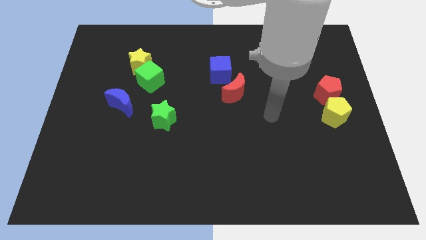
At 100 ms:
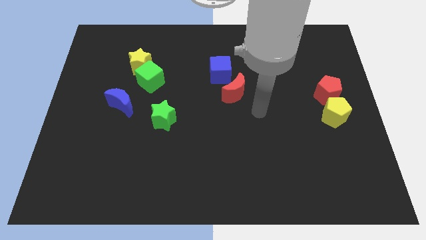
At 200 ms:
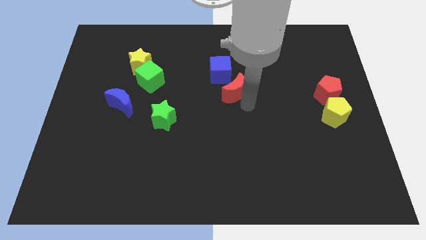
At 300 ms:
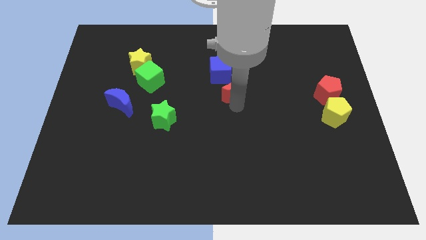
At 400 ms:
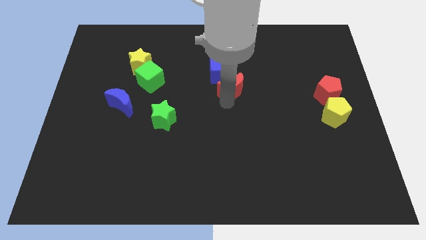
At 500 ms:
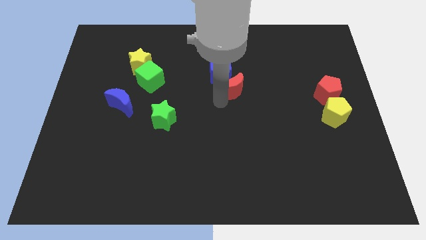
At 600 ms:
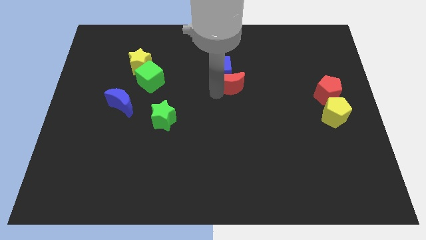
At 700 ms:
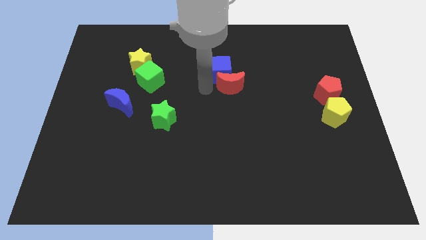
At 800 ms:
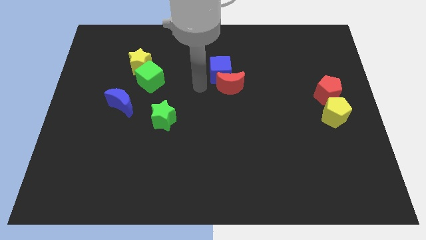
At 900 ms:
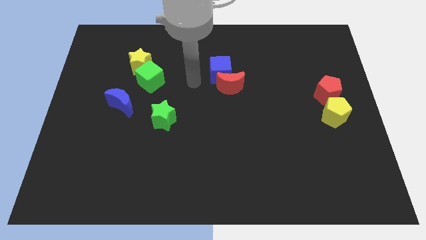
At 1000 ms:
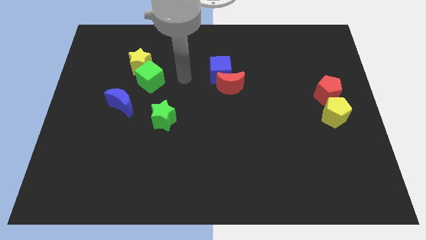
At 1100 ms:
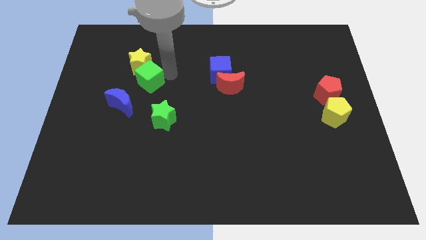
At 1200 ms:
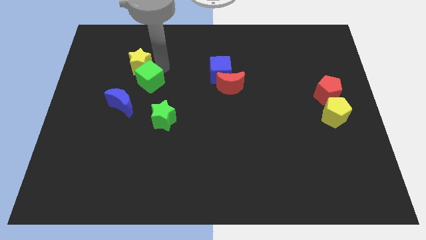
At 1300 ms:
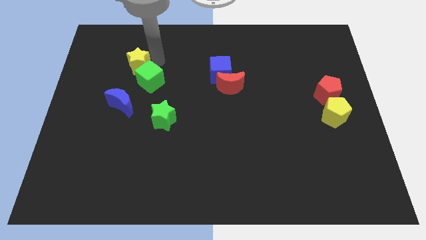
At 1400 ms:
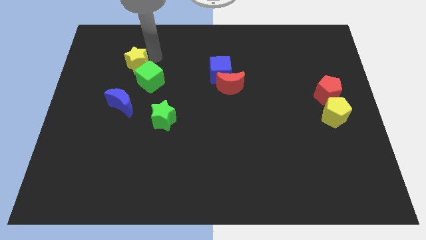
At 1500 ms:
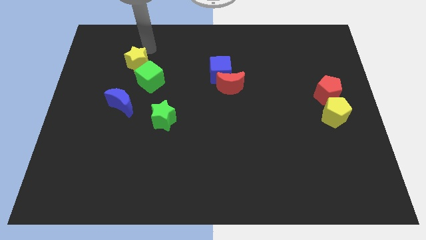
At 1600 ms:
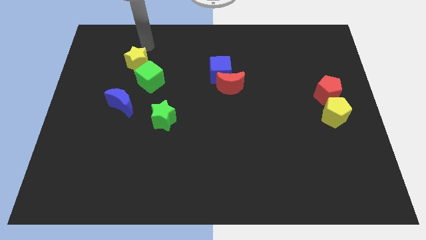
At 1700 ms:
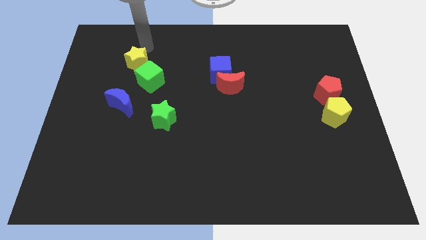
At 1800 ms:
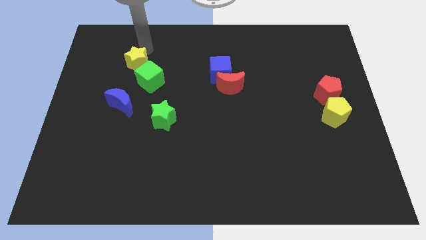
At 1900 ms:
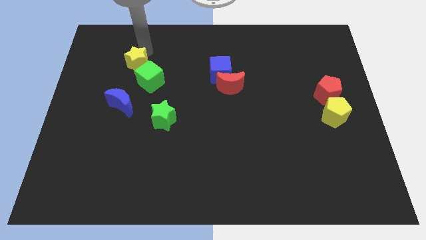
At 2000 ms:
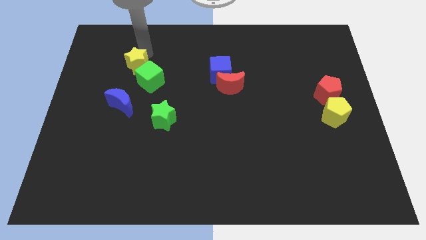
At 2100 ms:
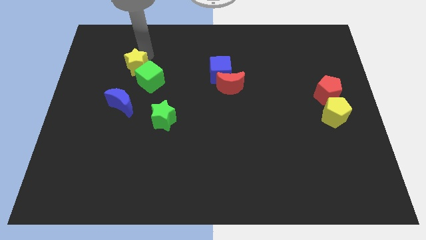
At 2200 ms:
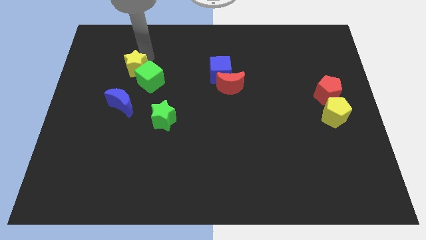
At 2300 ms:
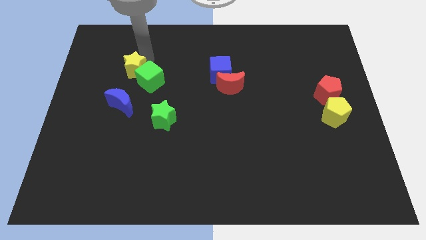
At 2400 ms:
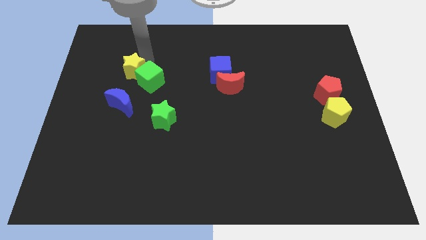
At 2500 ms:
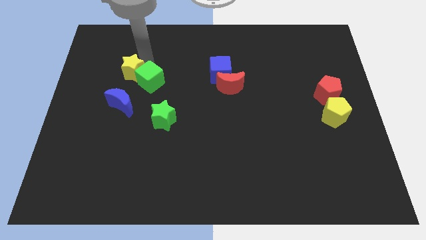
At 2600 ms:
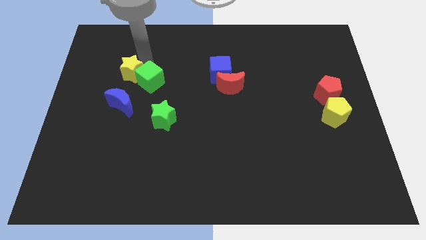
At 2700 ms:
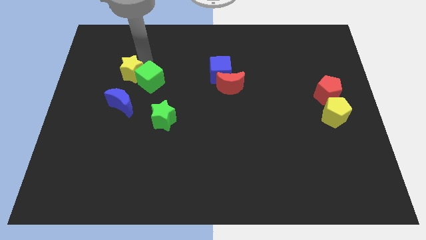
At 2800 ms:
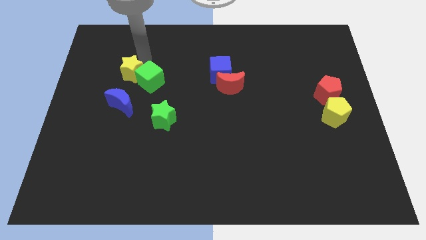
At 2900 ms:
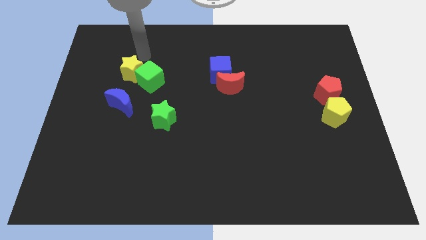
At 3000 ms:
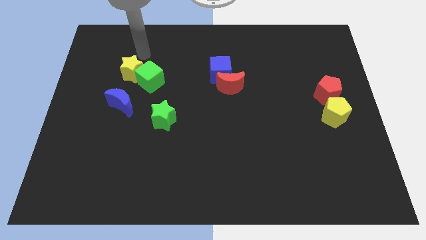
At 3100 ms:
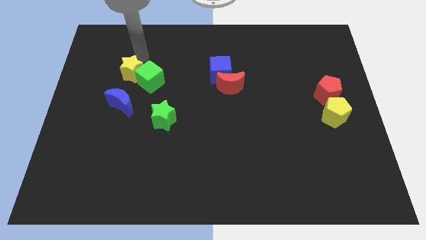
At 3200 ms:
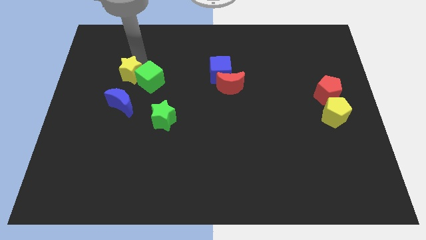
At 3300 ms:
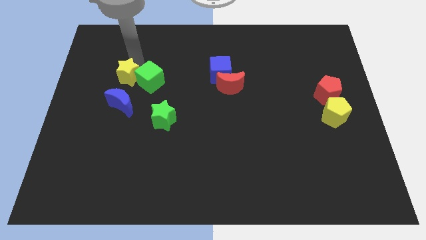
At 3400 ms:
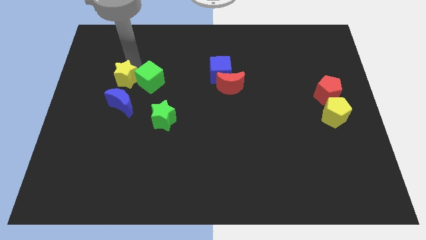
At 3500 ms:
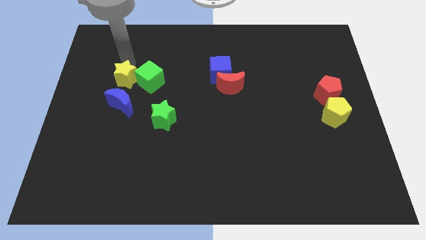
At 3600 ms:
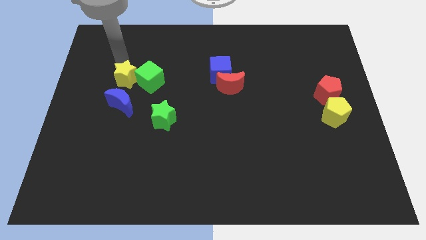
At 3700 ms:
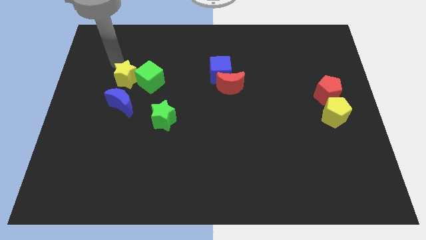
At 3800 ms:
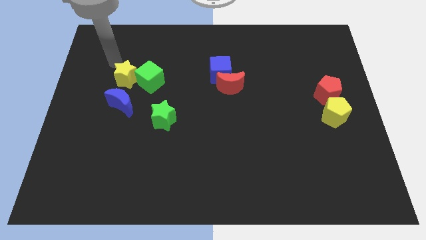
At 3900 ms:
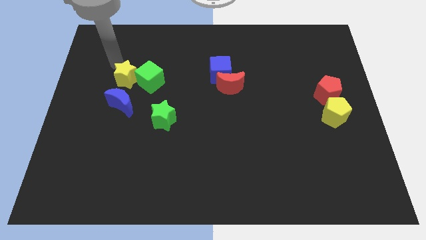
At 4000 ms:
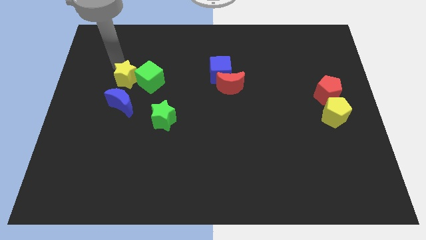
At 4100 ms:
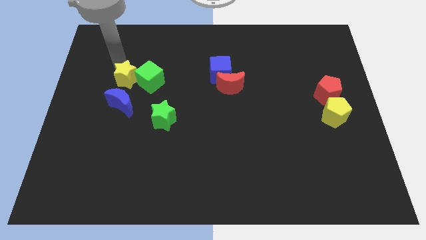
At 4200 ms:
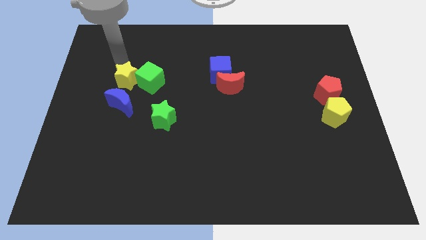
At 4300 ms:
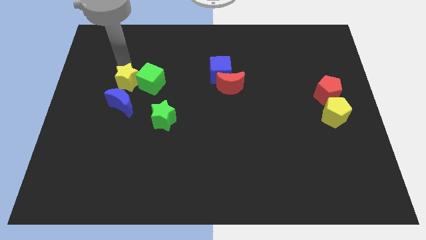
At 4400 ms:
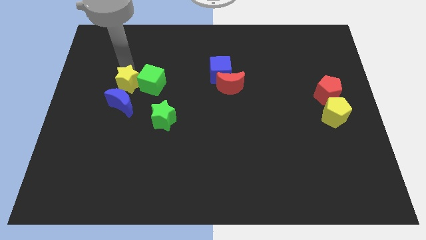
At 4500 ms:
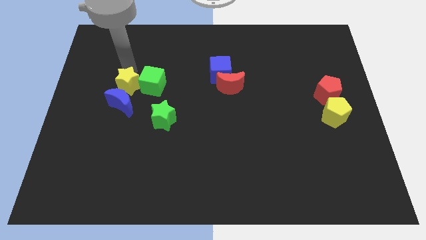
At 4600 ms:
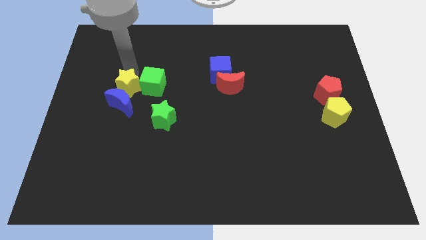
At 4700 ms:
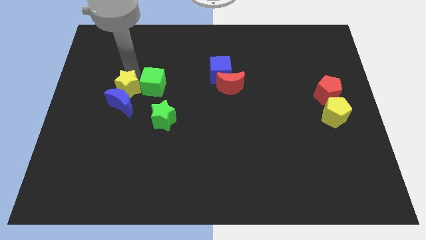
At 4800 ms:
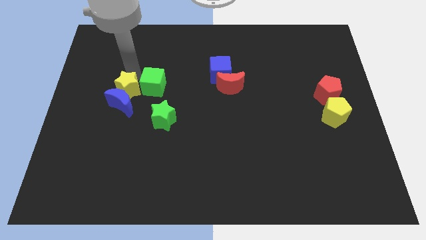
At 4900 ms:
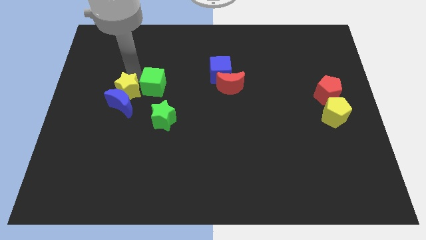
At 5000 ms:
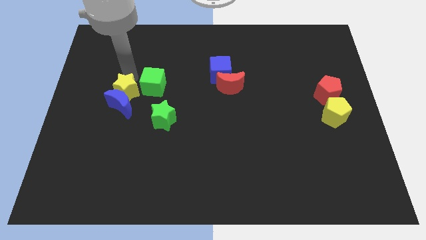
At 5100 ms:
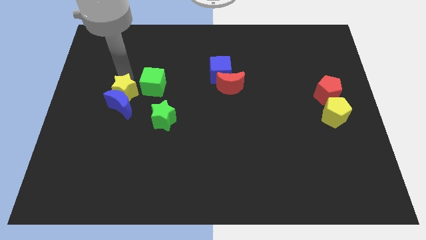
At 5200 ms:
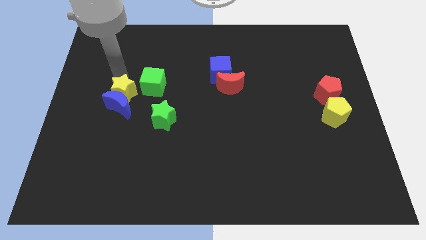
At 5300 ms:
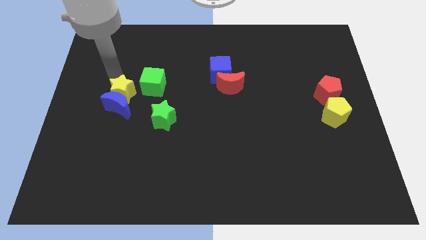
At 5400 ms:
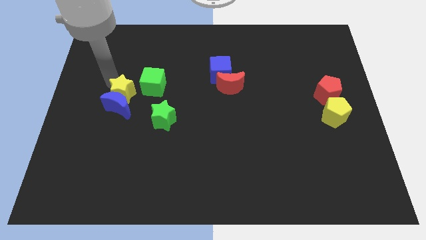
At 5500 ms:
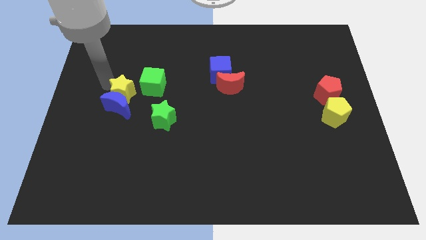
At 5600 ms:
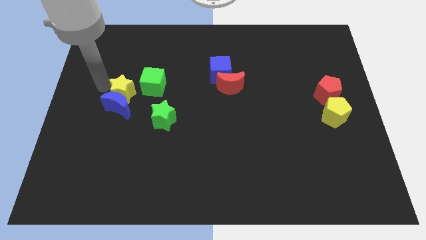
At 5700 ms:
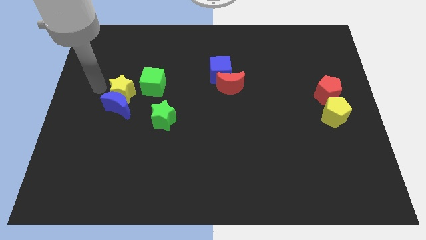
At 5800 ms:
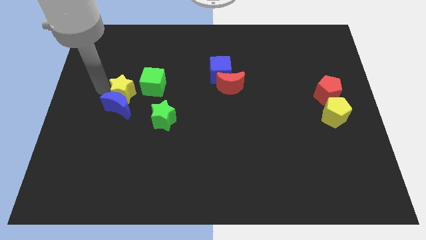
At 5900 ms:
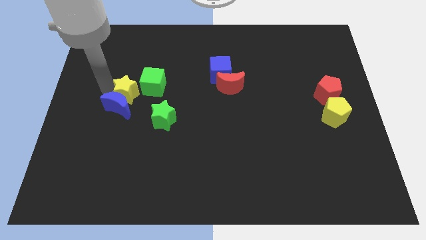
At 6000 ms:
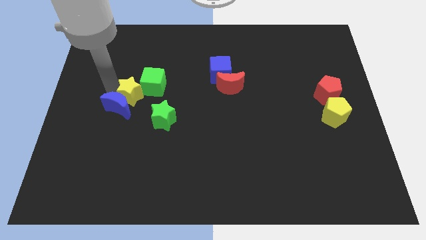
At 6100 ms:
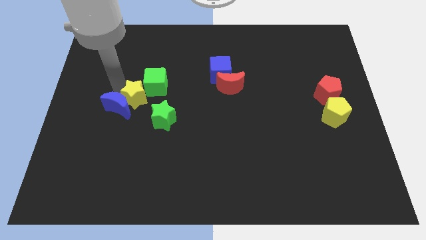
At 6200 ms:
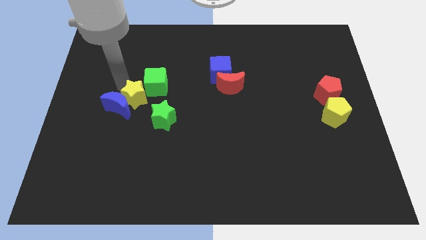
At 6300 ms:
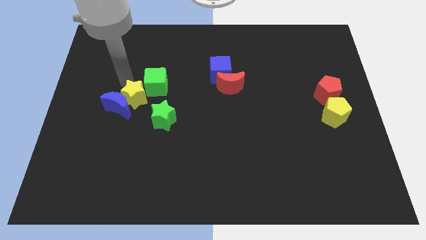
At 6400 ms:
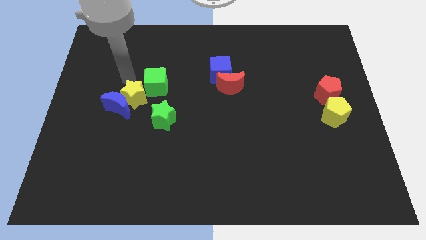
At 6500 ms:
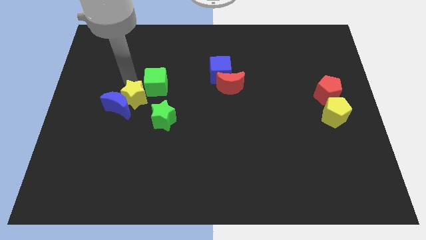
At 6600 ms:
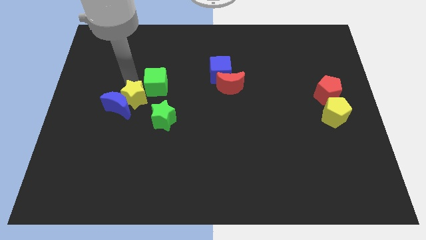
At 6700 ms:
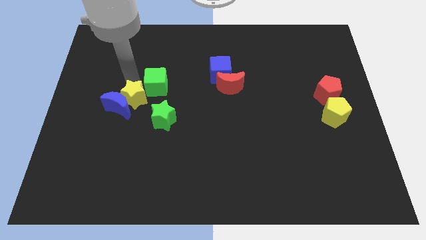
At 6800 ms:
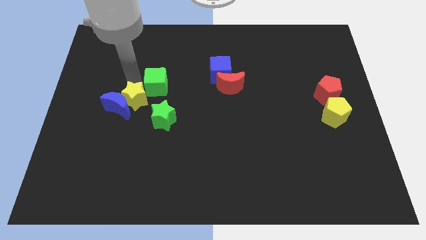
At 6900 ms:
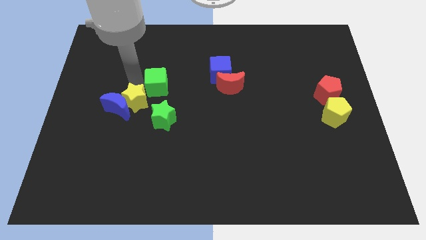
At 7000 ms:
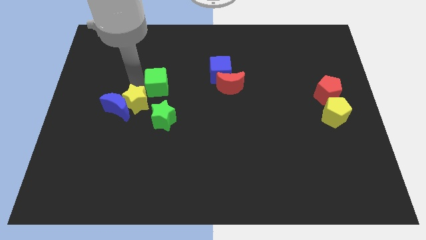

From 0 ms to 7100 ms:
move the yellow star left of the green star

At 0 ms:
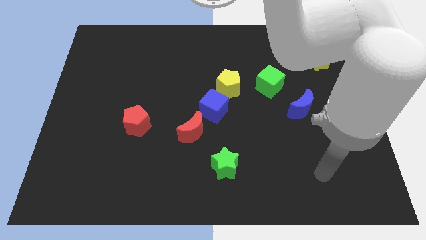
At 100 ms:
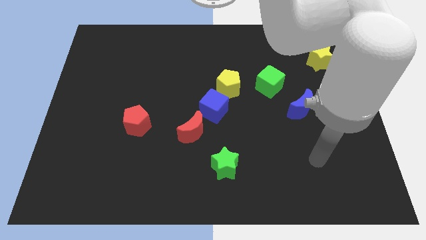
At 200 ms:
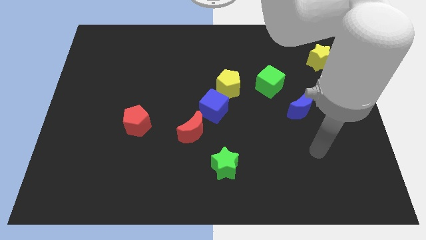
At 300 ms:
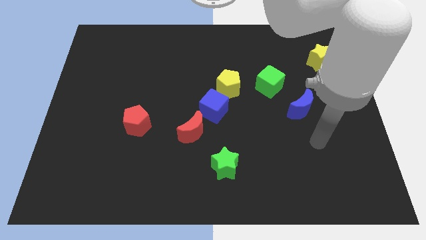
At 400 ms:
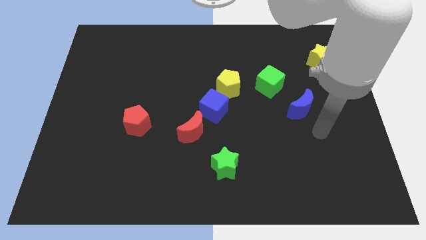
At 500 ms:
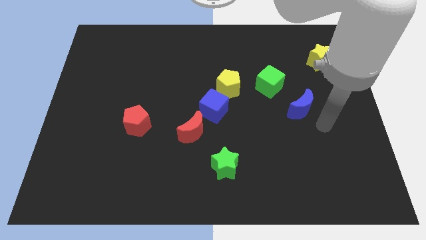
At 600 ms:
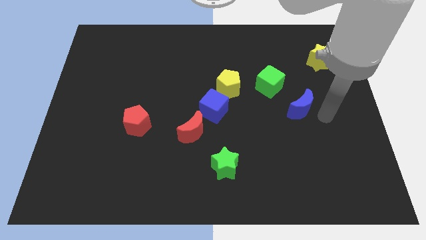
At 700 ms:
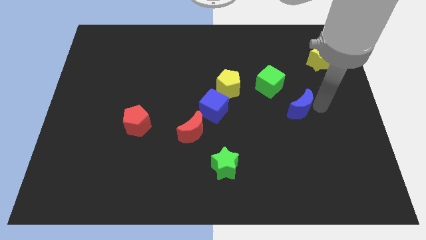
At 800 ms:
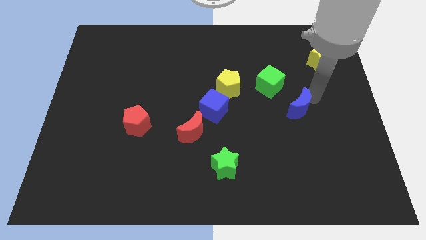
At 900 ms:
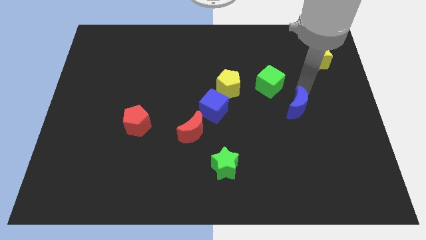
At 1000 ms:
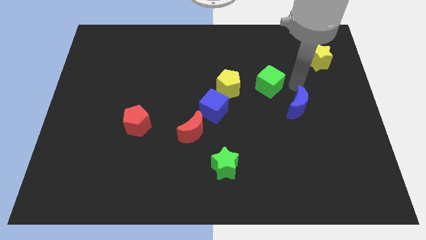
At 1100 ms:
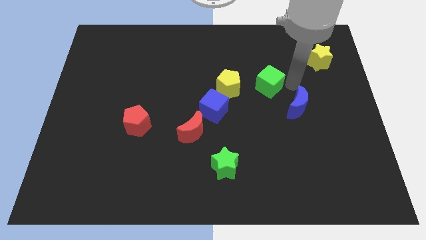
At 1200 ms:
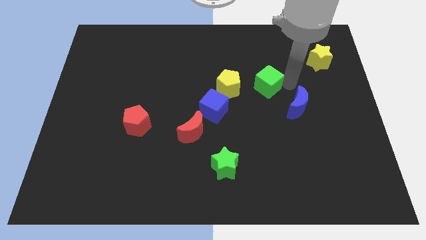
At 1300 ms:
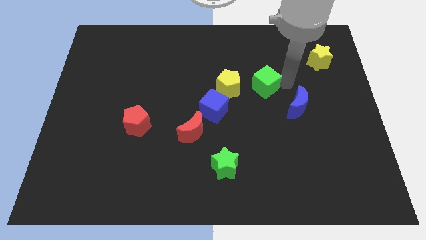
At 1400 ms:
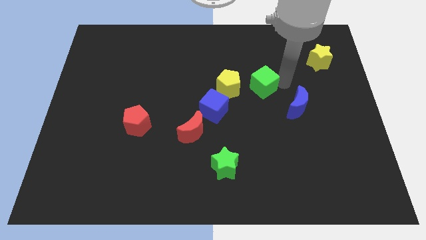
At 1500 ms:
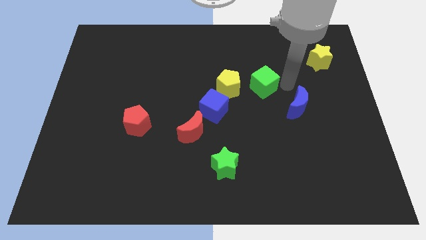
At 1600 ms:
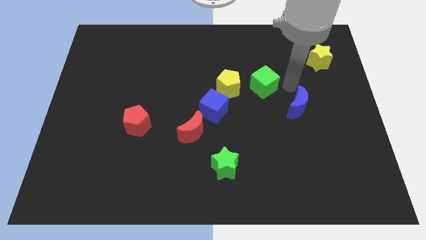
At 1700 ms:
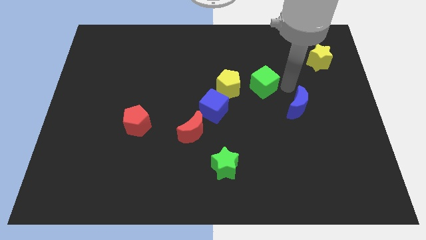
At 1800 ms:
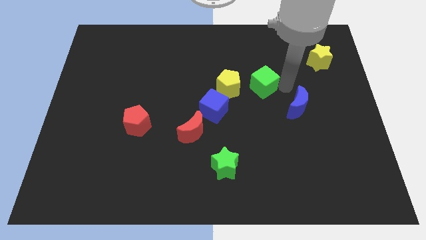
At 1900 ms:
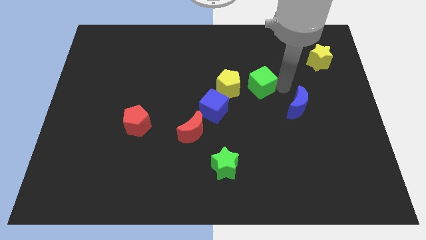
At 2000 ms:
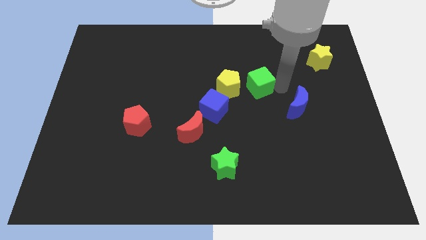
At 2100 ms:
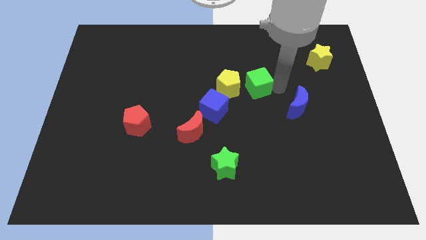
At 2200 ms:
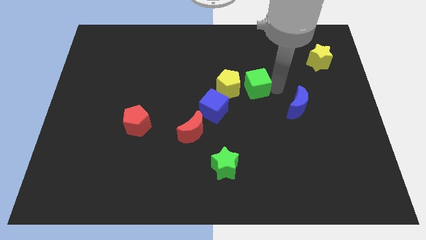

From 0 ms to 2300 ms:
put the green cube to the top right side of the blue cube
